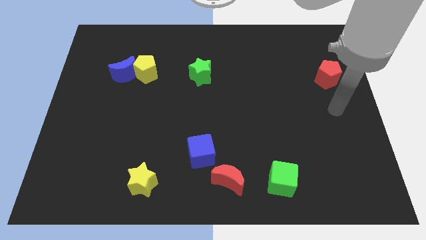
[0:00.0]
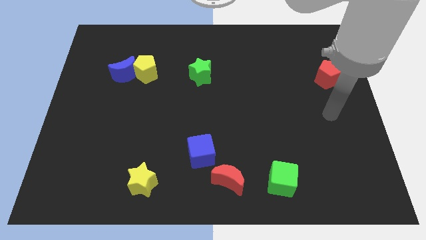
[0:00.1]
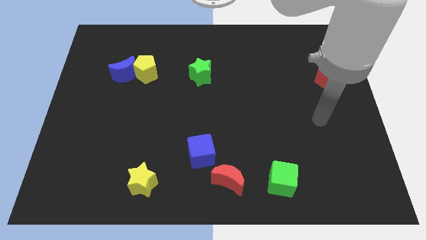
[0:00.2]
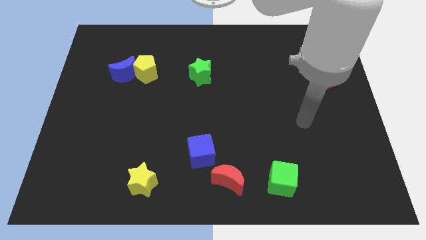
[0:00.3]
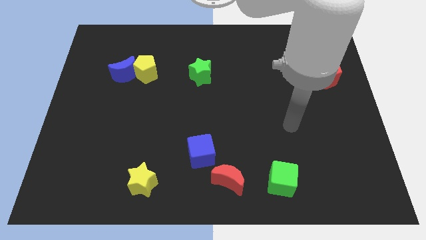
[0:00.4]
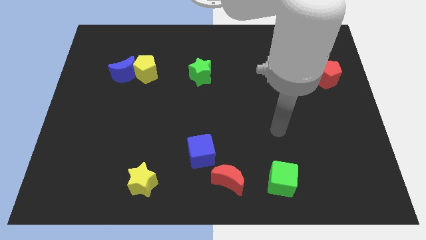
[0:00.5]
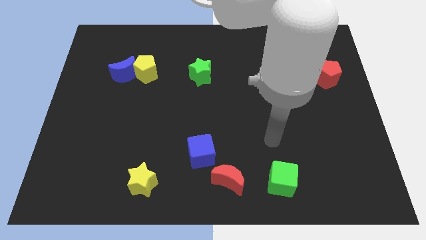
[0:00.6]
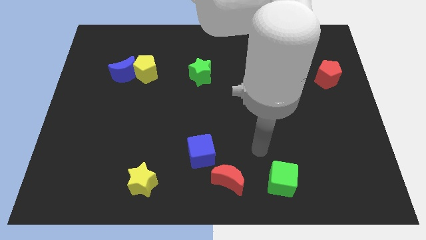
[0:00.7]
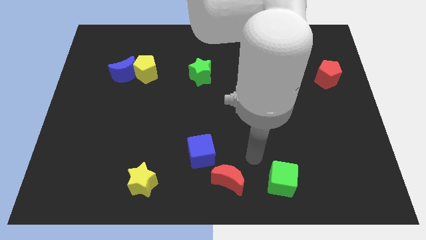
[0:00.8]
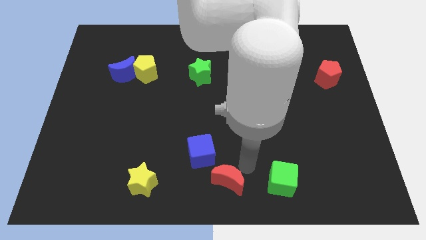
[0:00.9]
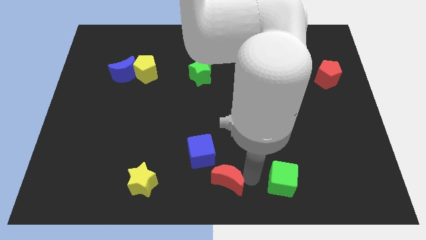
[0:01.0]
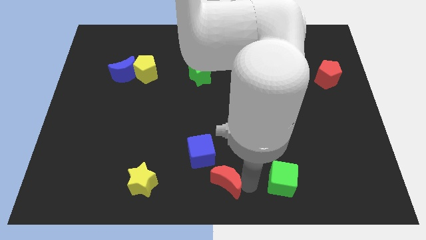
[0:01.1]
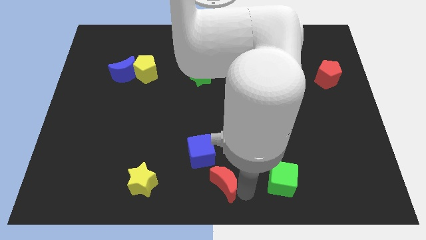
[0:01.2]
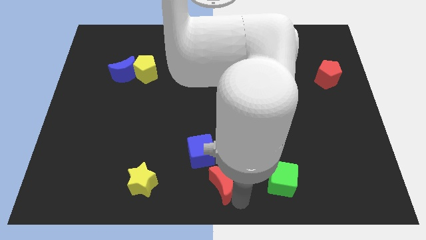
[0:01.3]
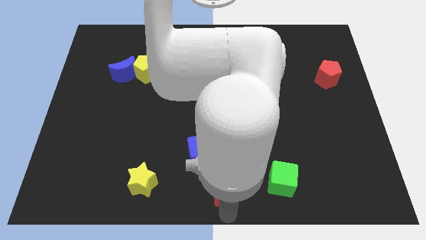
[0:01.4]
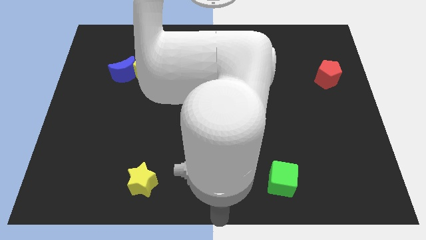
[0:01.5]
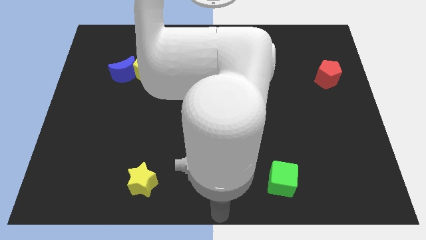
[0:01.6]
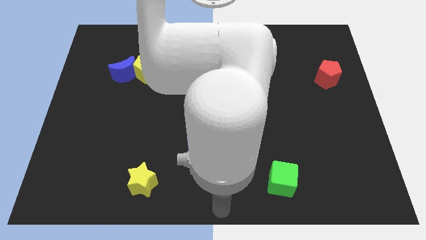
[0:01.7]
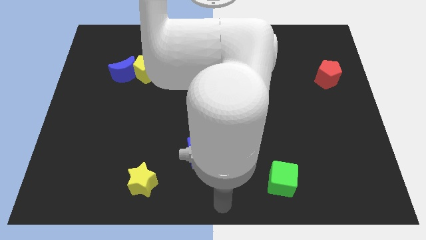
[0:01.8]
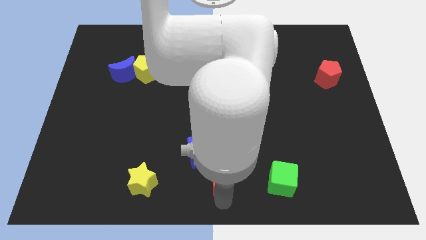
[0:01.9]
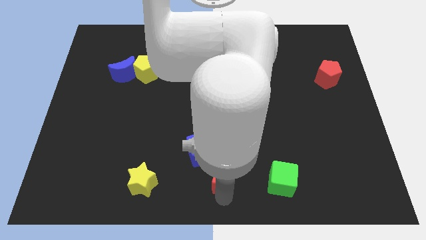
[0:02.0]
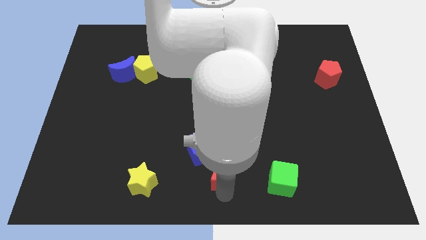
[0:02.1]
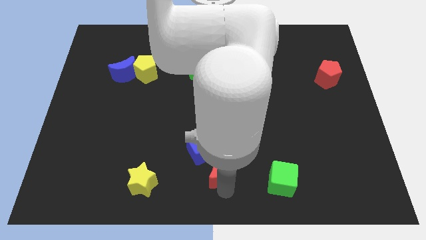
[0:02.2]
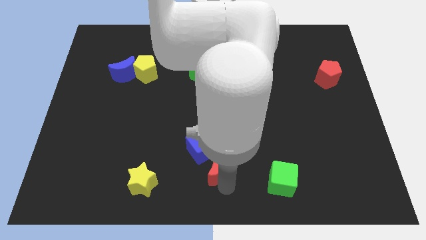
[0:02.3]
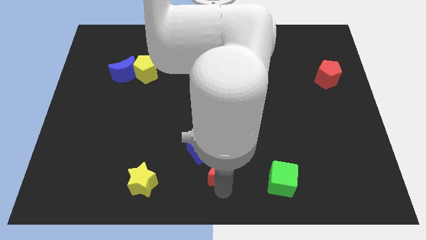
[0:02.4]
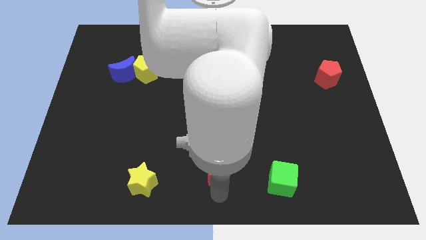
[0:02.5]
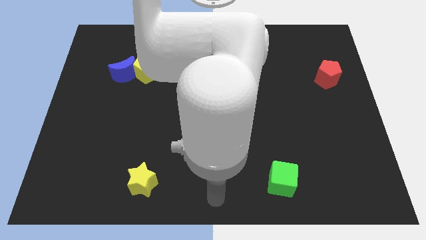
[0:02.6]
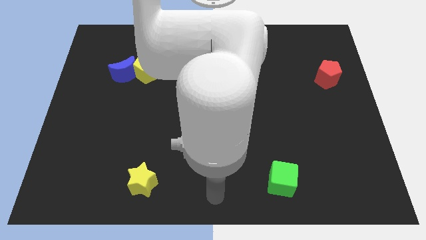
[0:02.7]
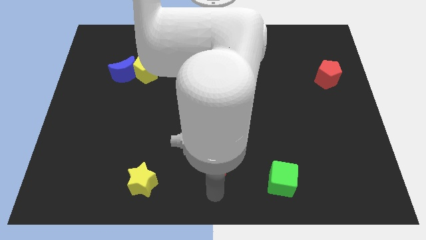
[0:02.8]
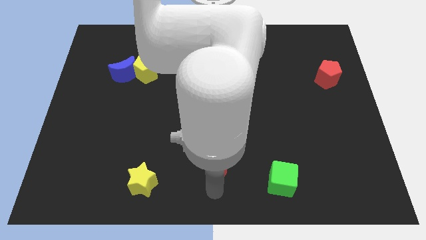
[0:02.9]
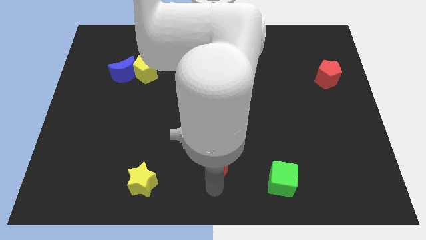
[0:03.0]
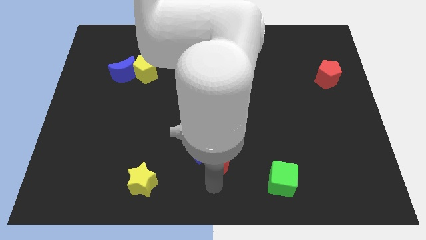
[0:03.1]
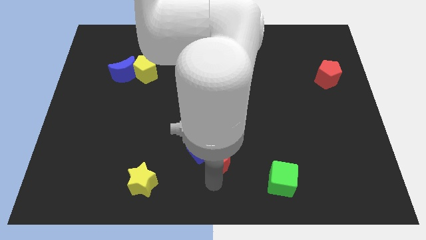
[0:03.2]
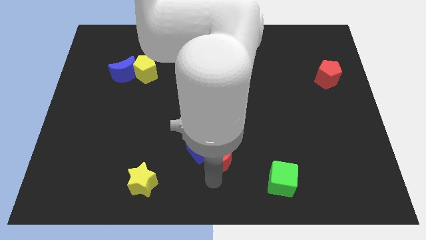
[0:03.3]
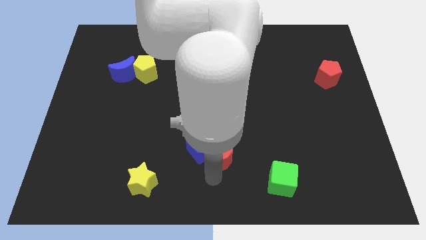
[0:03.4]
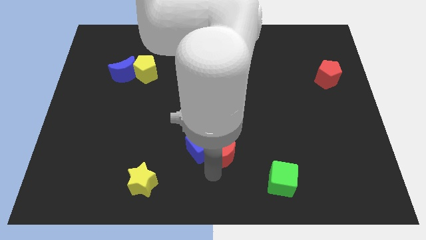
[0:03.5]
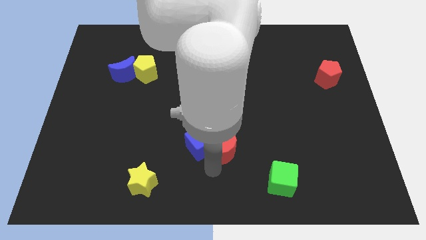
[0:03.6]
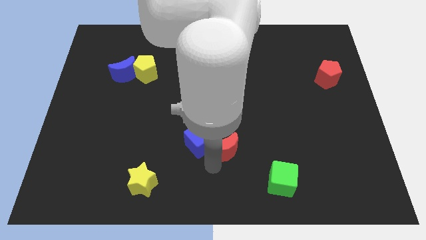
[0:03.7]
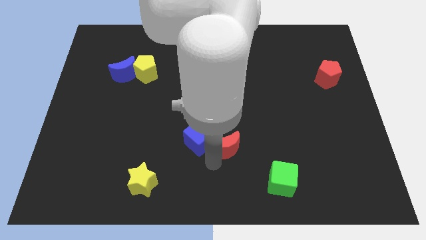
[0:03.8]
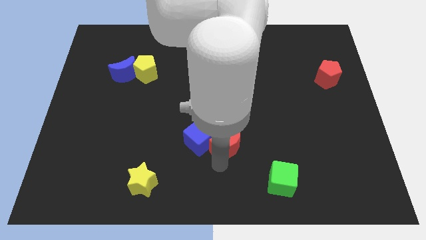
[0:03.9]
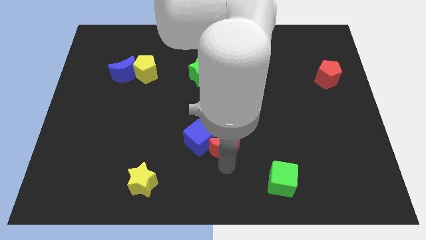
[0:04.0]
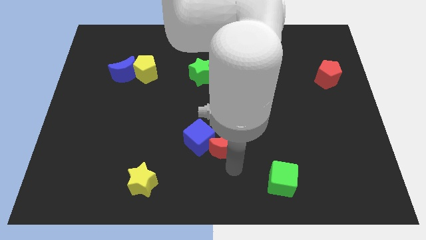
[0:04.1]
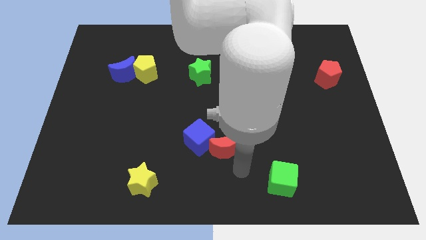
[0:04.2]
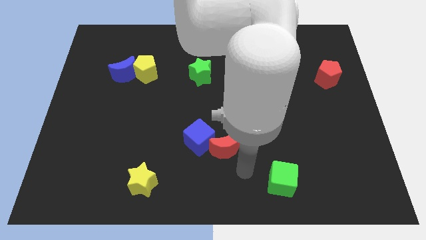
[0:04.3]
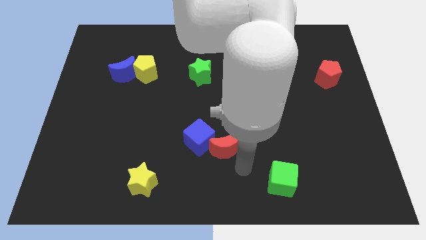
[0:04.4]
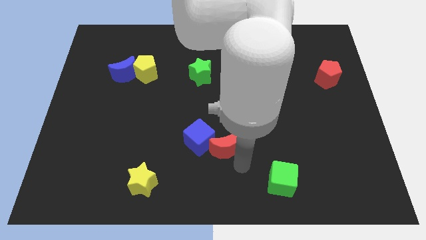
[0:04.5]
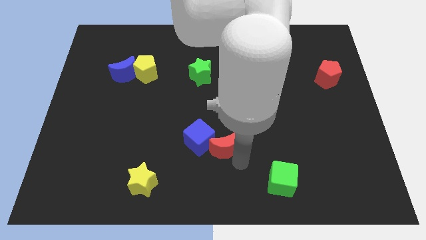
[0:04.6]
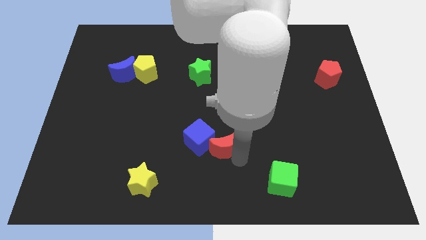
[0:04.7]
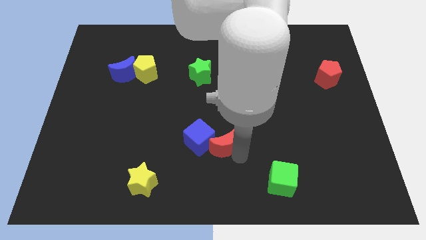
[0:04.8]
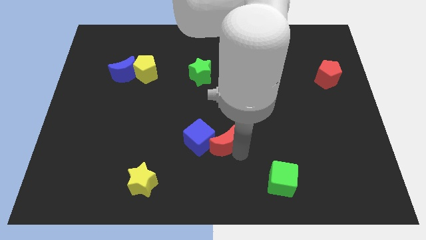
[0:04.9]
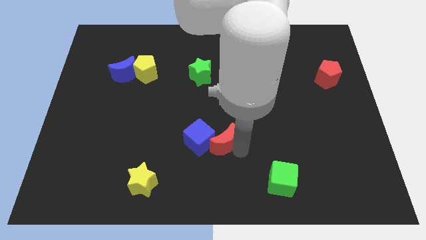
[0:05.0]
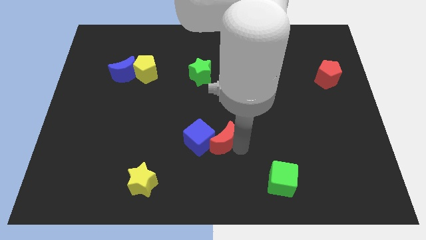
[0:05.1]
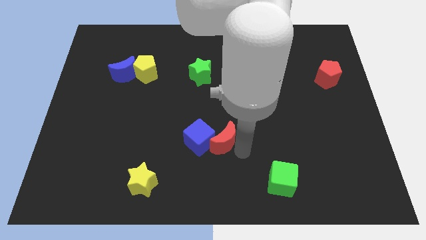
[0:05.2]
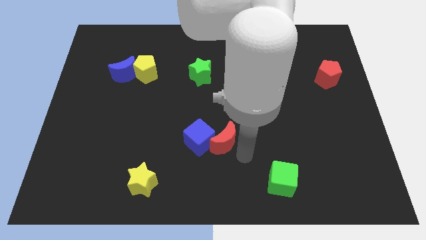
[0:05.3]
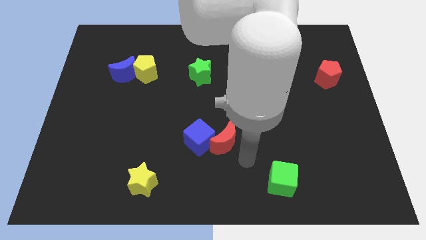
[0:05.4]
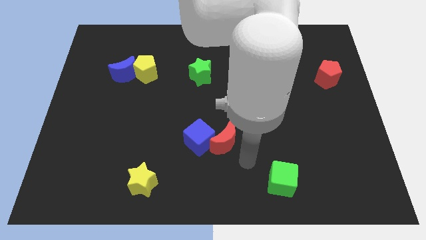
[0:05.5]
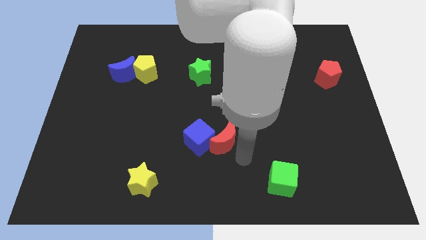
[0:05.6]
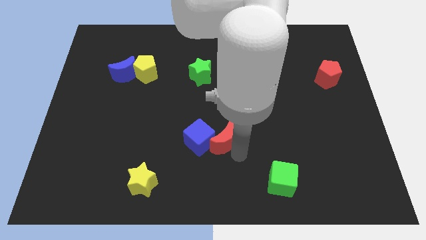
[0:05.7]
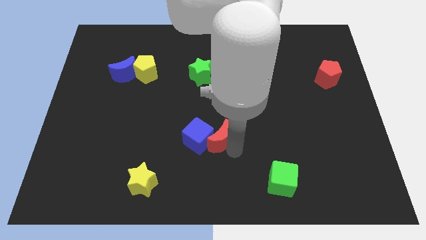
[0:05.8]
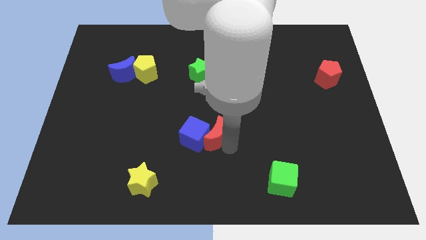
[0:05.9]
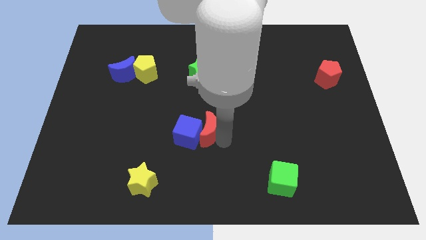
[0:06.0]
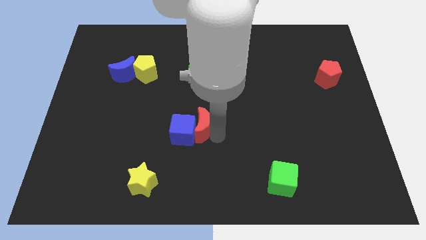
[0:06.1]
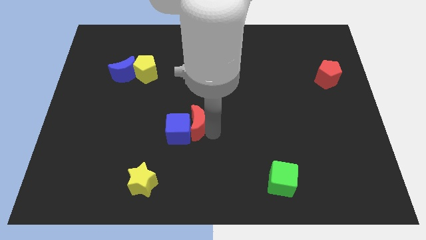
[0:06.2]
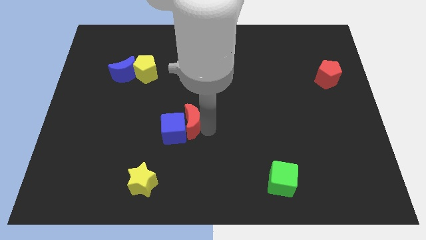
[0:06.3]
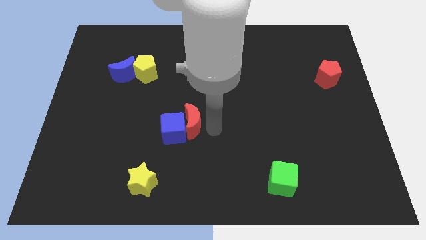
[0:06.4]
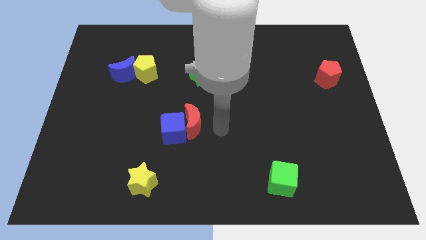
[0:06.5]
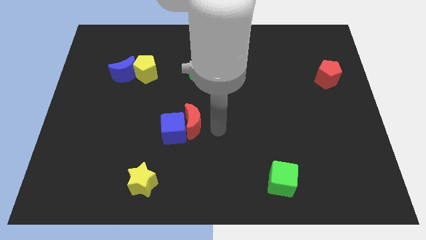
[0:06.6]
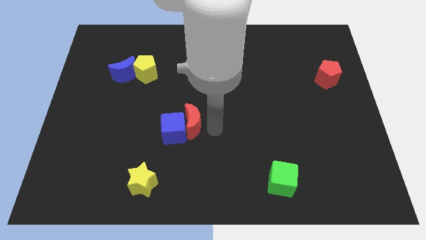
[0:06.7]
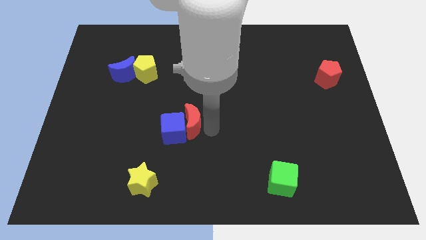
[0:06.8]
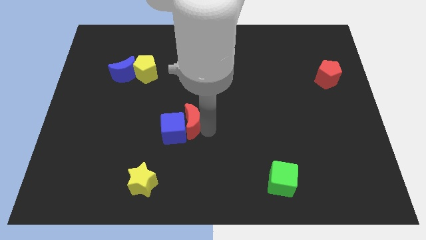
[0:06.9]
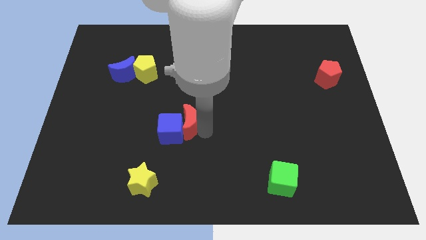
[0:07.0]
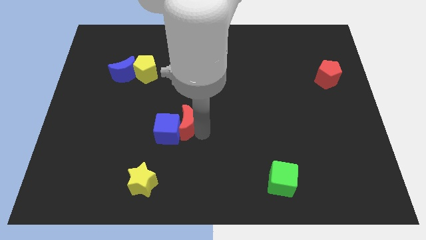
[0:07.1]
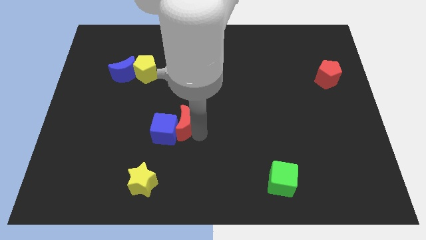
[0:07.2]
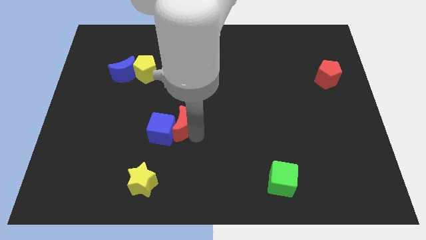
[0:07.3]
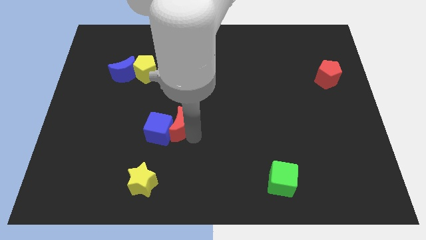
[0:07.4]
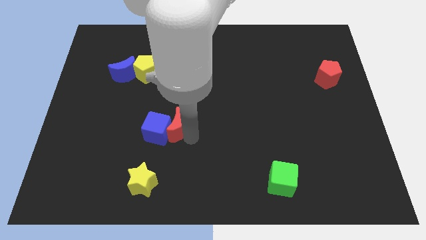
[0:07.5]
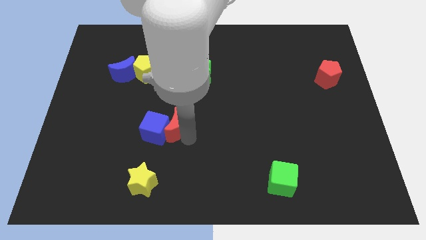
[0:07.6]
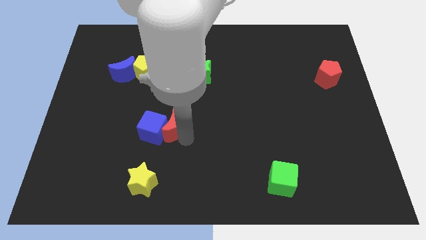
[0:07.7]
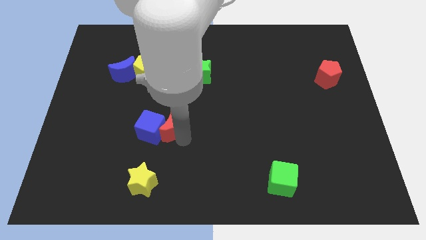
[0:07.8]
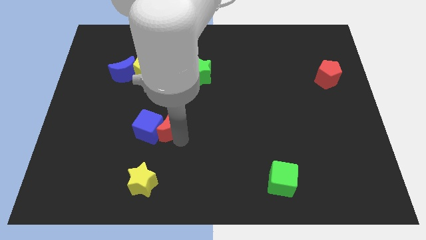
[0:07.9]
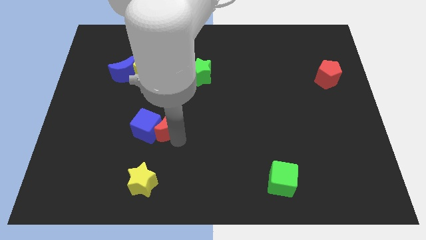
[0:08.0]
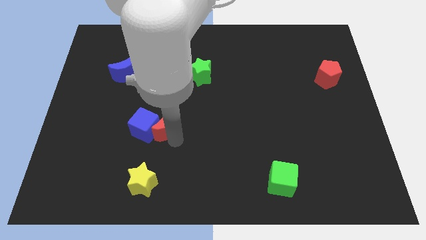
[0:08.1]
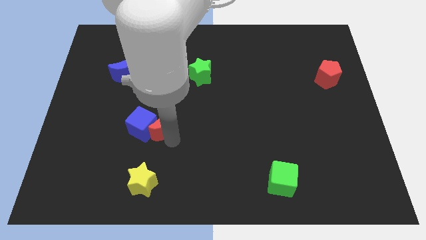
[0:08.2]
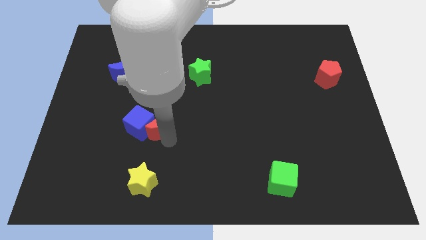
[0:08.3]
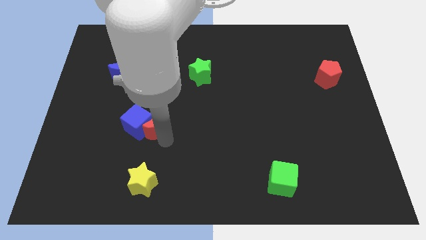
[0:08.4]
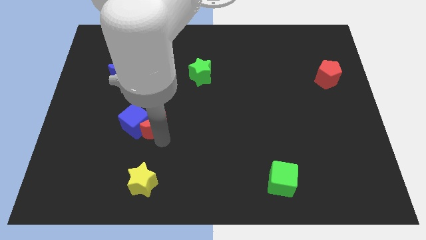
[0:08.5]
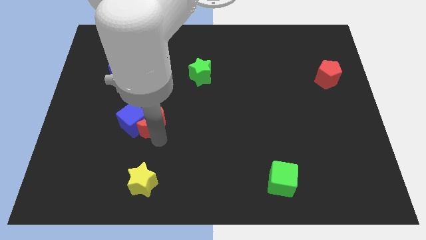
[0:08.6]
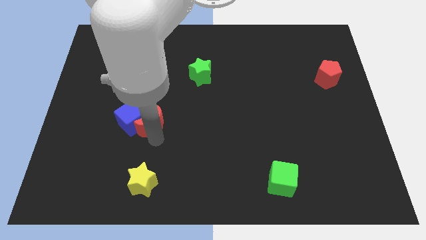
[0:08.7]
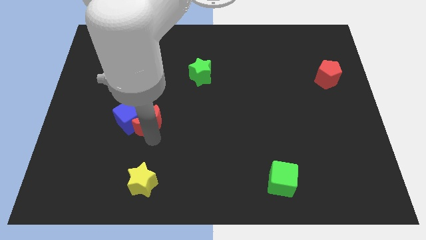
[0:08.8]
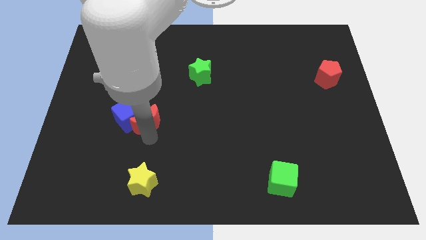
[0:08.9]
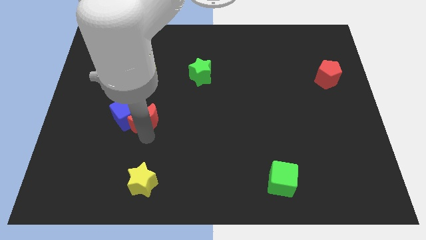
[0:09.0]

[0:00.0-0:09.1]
move the red moon to the bottom of the yellow pentagon
